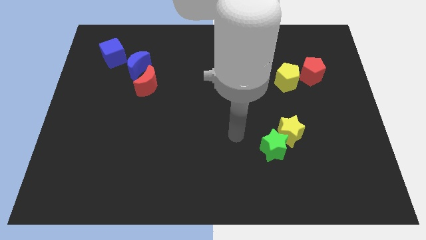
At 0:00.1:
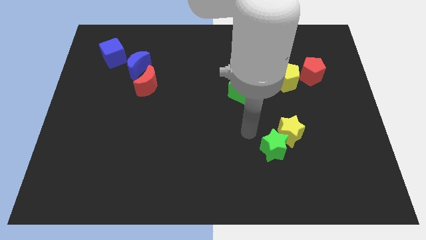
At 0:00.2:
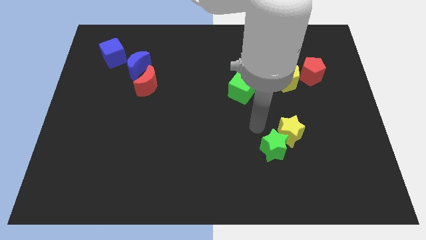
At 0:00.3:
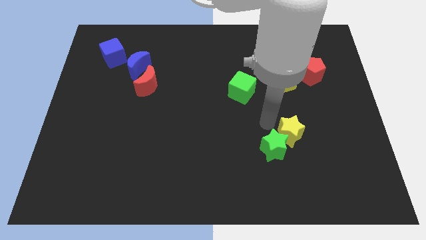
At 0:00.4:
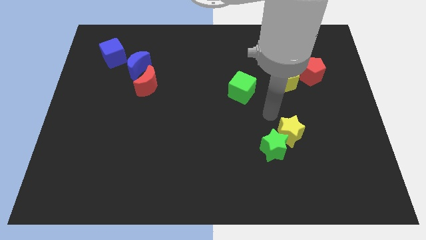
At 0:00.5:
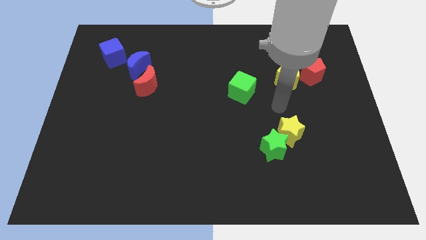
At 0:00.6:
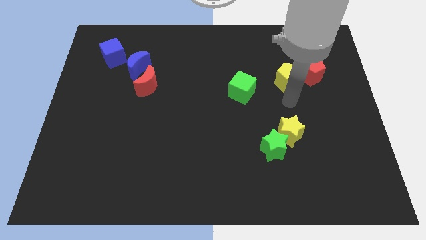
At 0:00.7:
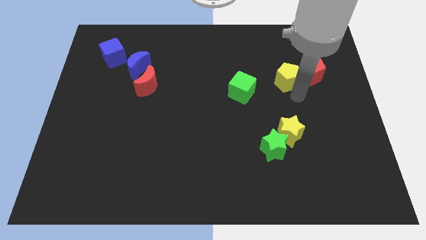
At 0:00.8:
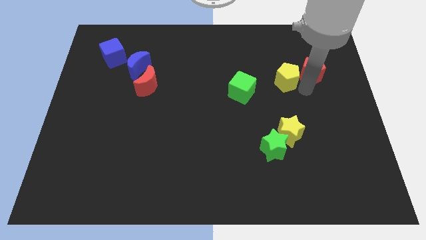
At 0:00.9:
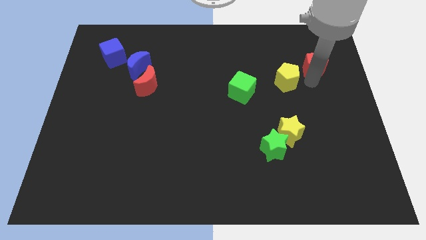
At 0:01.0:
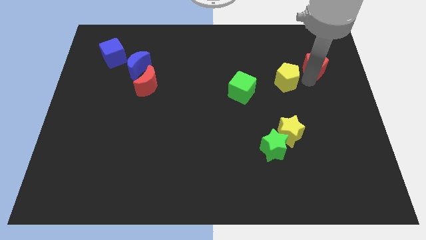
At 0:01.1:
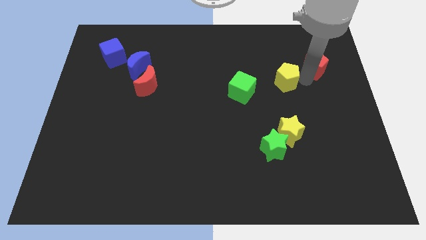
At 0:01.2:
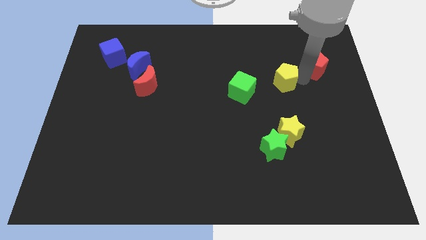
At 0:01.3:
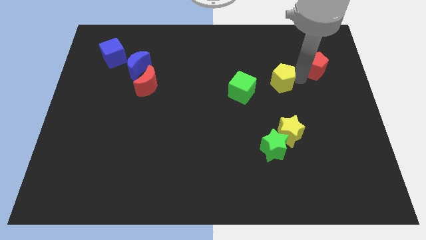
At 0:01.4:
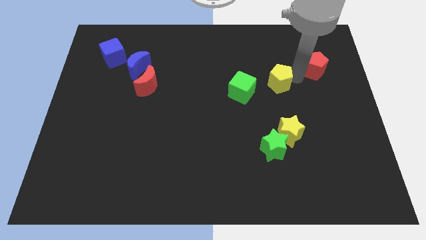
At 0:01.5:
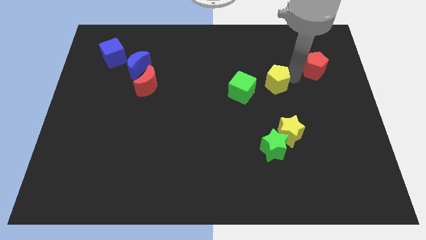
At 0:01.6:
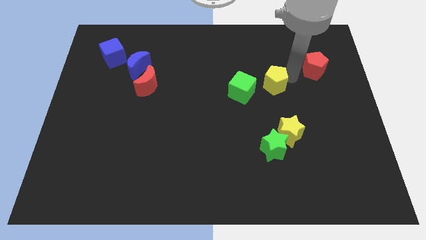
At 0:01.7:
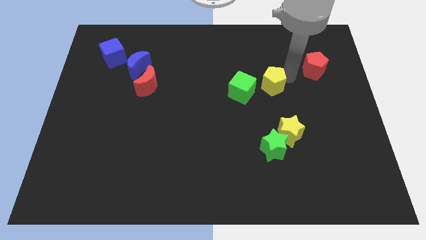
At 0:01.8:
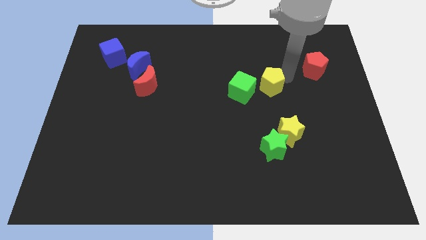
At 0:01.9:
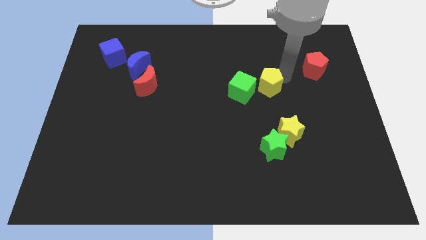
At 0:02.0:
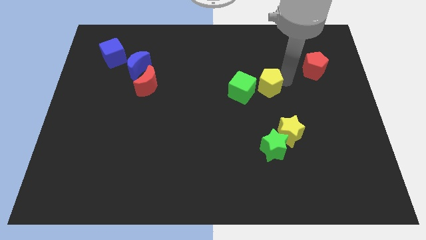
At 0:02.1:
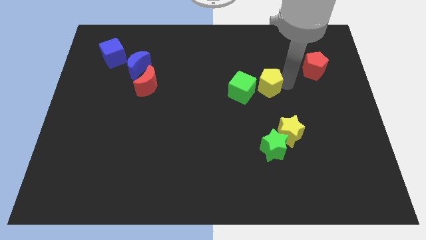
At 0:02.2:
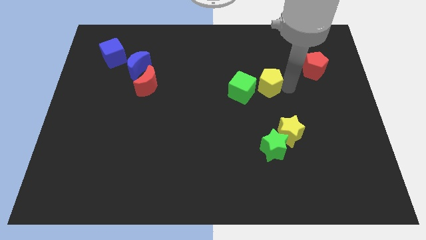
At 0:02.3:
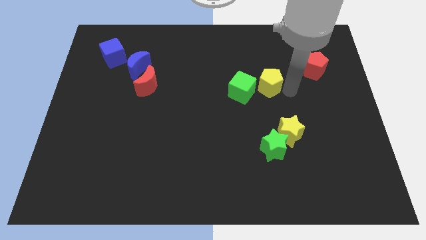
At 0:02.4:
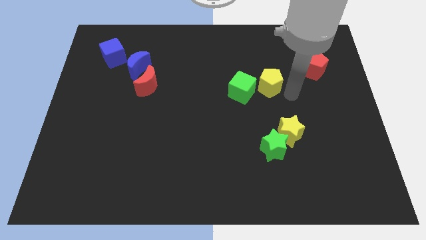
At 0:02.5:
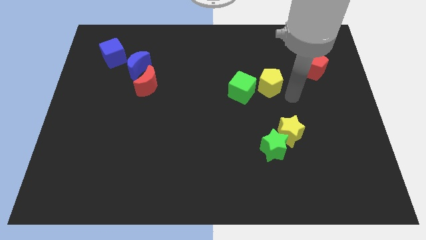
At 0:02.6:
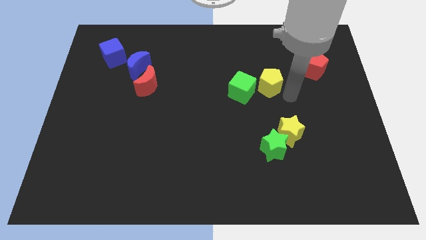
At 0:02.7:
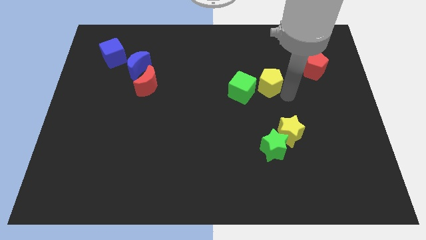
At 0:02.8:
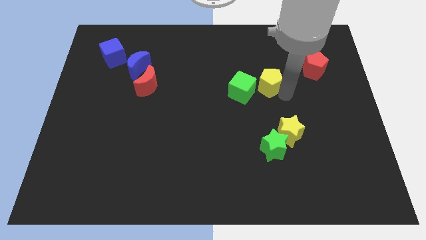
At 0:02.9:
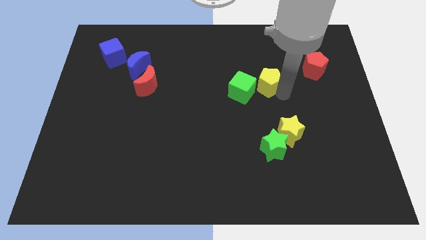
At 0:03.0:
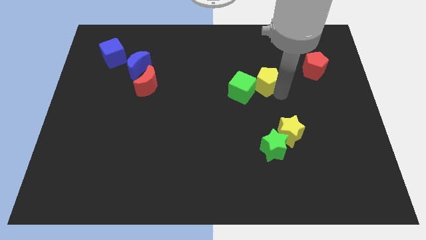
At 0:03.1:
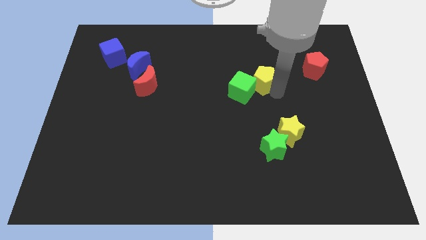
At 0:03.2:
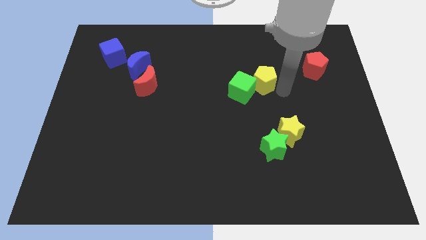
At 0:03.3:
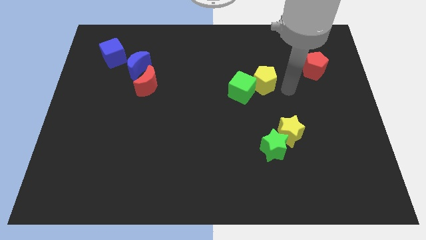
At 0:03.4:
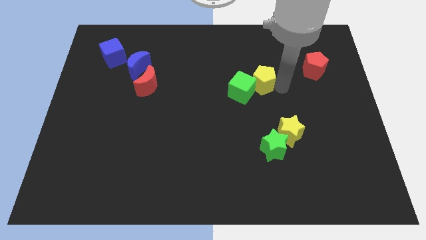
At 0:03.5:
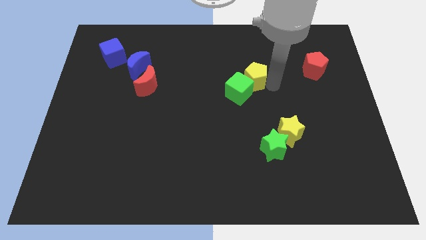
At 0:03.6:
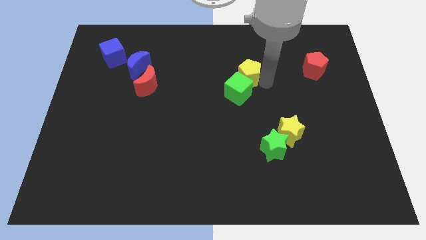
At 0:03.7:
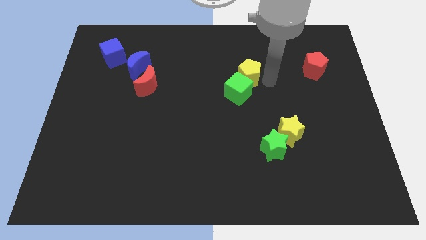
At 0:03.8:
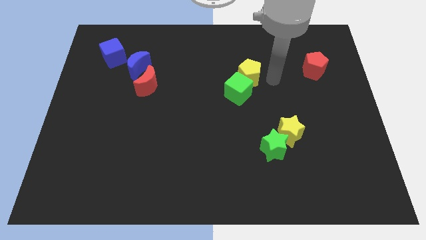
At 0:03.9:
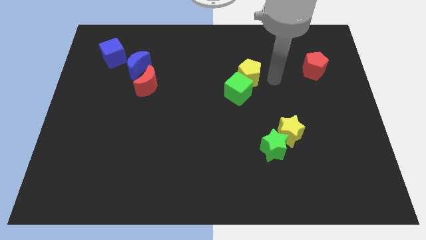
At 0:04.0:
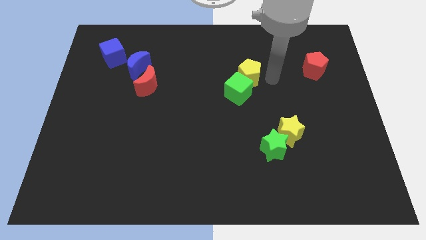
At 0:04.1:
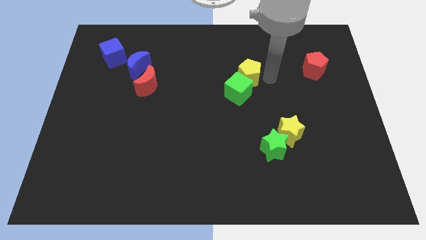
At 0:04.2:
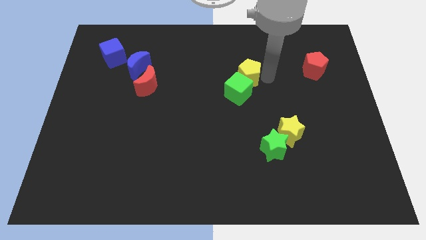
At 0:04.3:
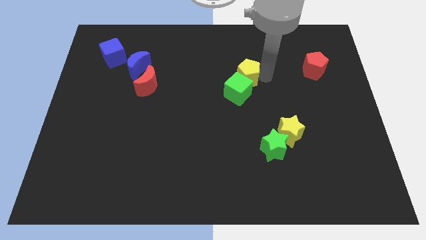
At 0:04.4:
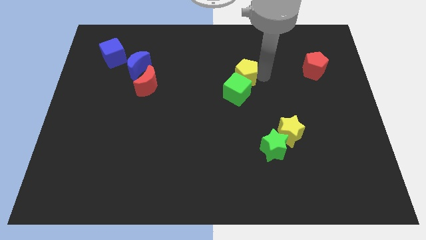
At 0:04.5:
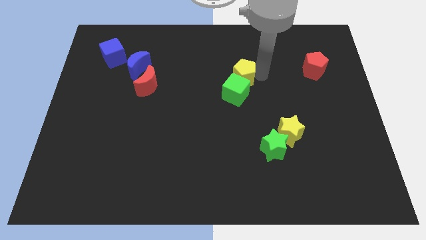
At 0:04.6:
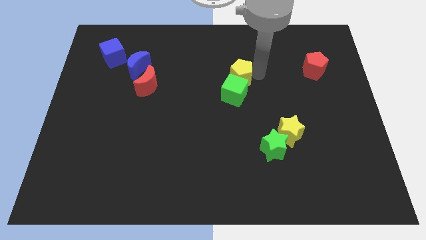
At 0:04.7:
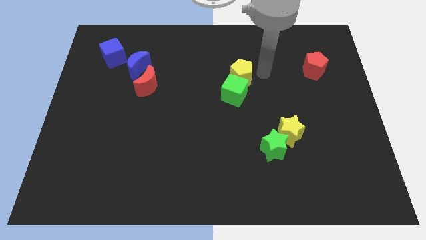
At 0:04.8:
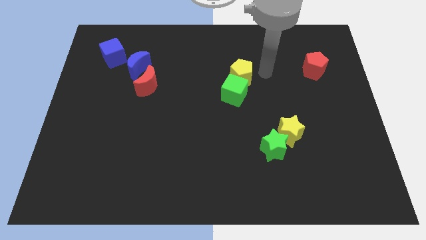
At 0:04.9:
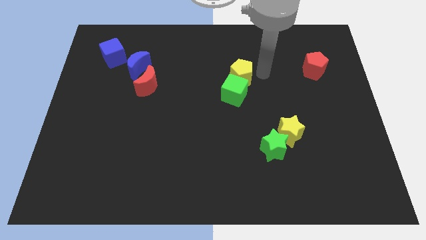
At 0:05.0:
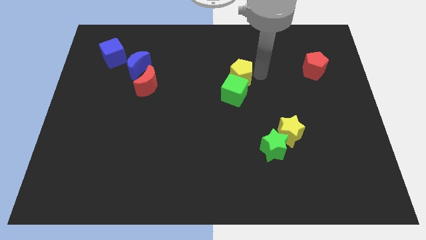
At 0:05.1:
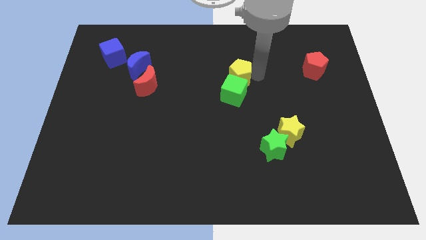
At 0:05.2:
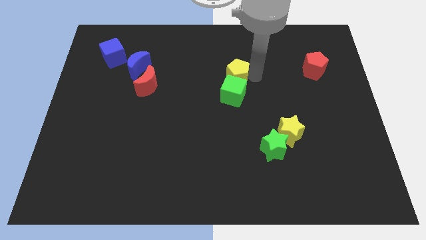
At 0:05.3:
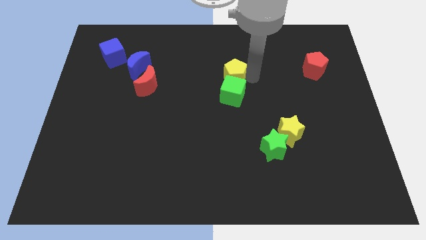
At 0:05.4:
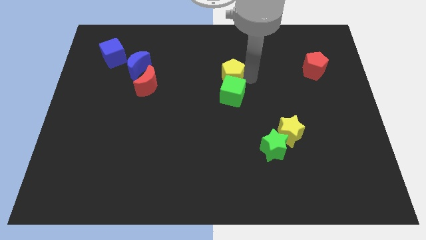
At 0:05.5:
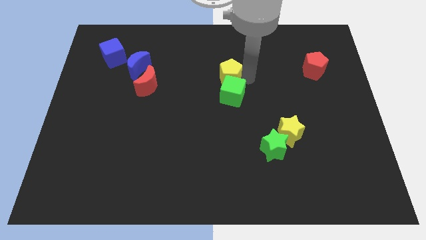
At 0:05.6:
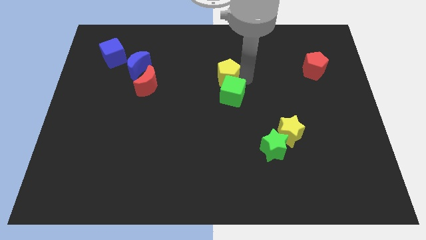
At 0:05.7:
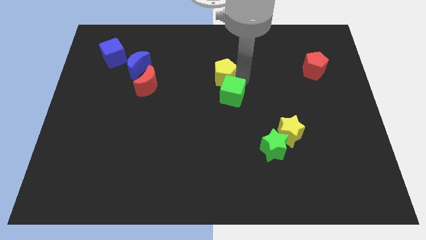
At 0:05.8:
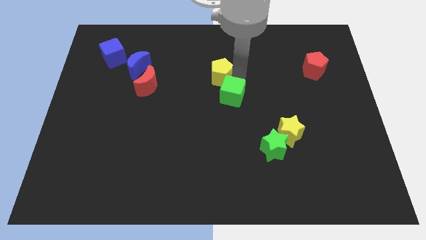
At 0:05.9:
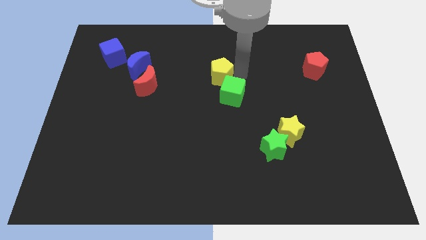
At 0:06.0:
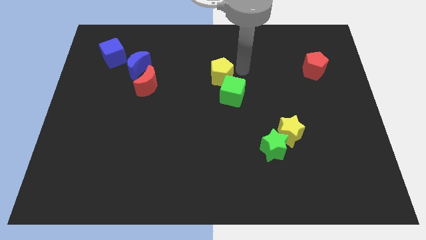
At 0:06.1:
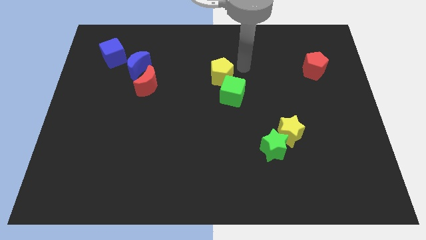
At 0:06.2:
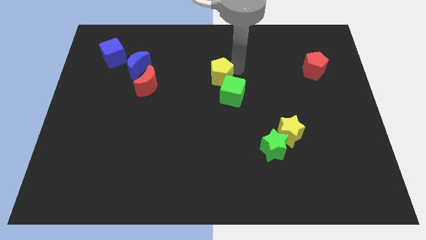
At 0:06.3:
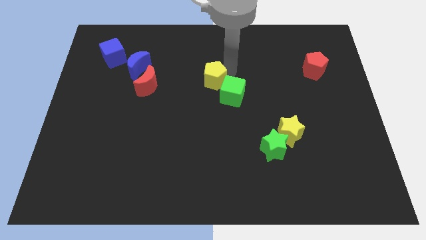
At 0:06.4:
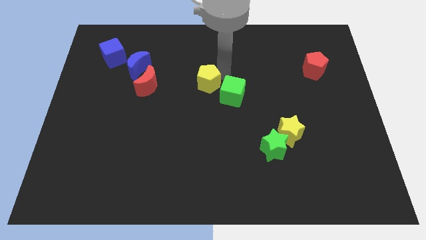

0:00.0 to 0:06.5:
push the yellow pentagon to the right side of the red moon

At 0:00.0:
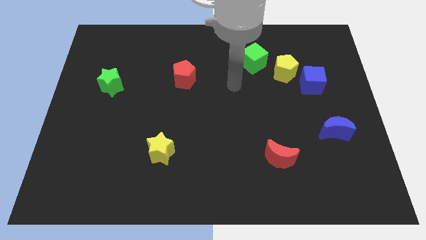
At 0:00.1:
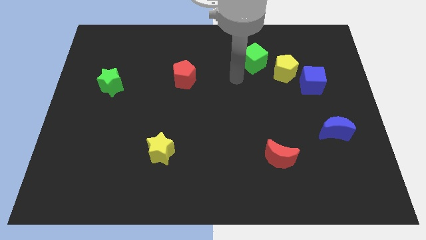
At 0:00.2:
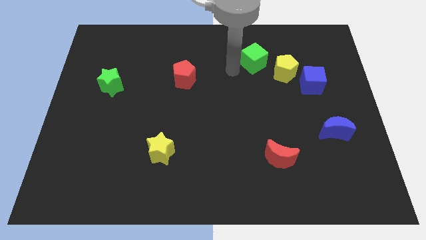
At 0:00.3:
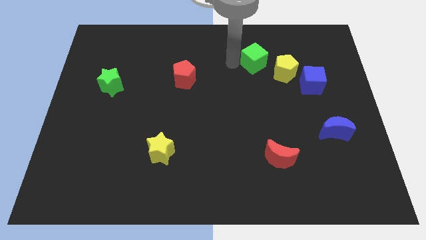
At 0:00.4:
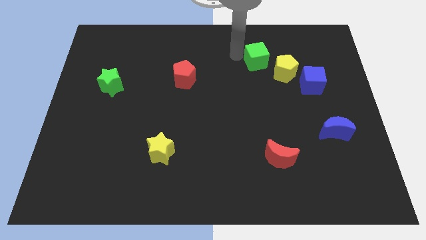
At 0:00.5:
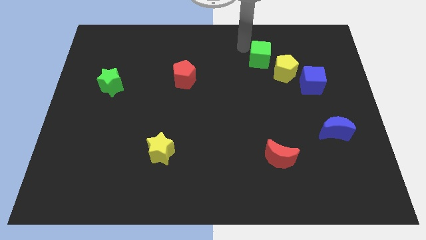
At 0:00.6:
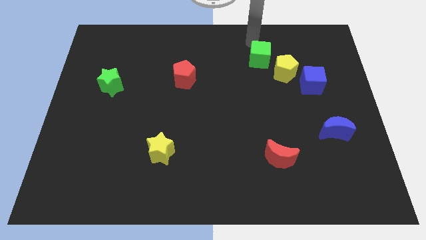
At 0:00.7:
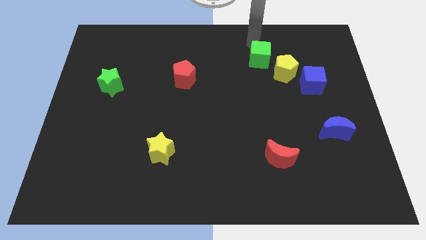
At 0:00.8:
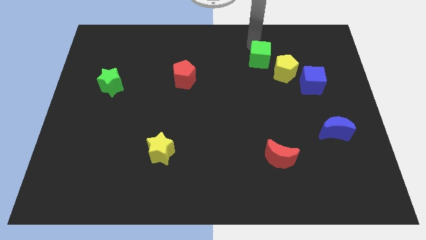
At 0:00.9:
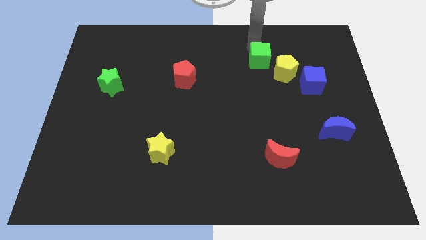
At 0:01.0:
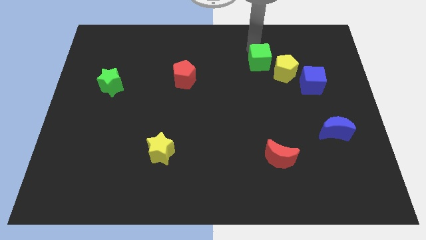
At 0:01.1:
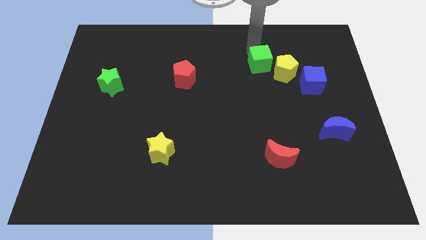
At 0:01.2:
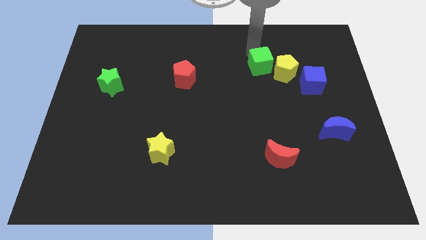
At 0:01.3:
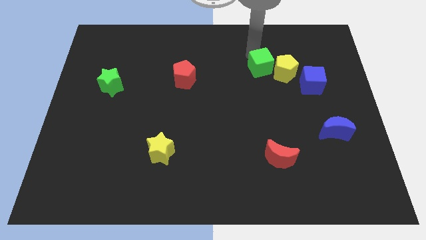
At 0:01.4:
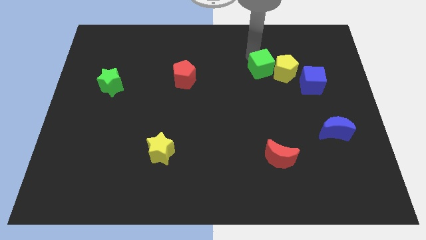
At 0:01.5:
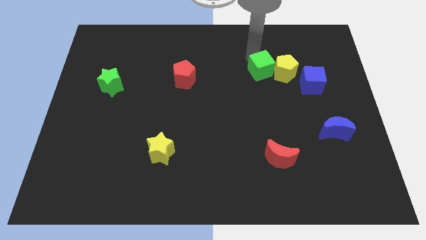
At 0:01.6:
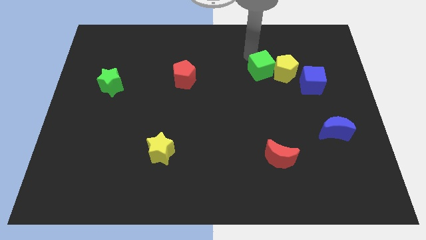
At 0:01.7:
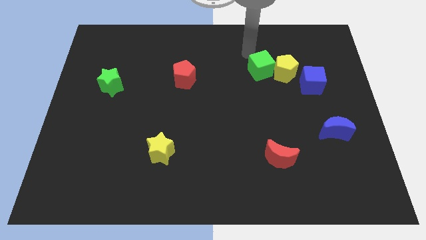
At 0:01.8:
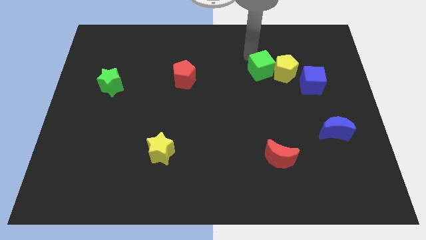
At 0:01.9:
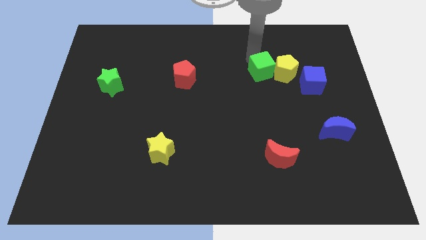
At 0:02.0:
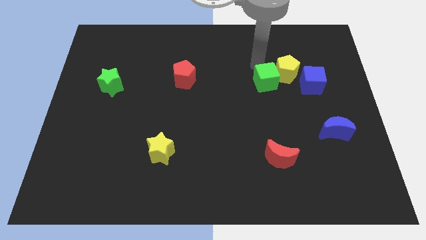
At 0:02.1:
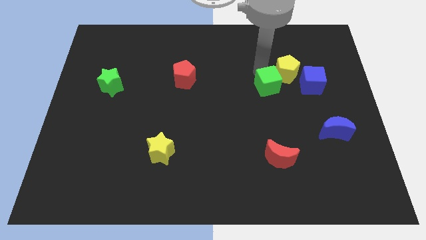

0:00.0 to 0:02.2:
move the green cube to the bottom side of the yellow pentagon
